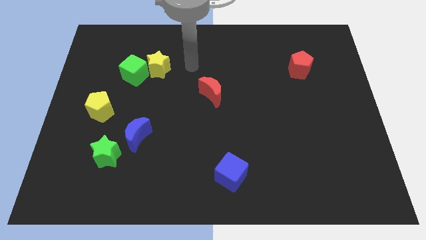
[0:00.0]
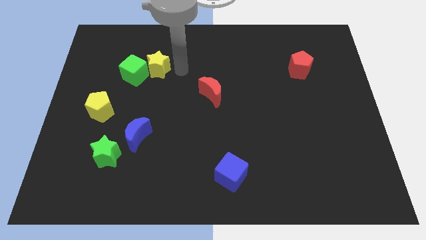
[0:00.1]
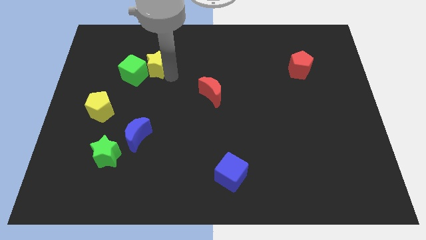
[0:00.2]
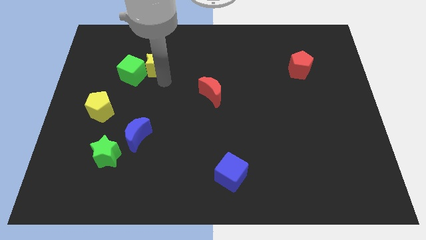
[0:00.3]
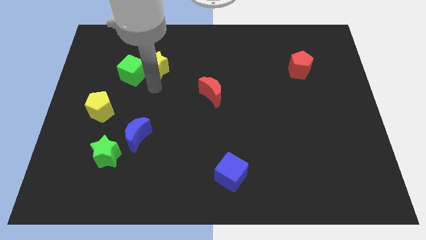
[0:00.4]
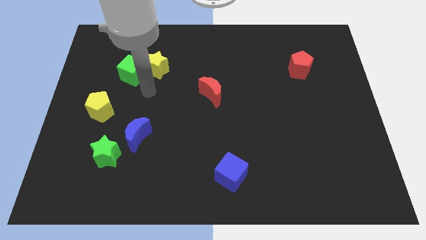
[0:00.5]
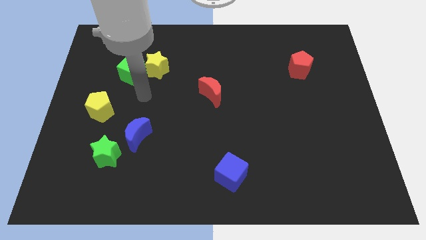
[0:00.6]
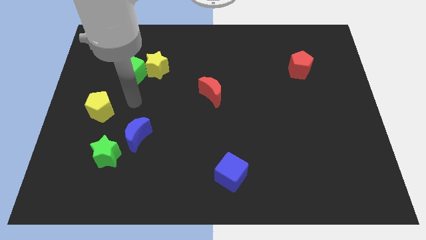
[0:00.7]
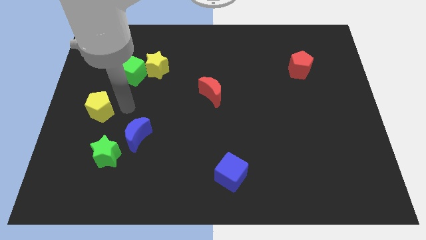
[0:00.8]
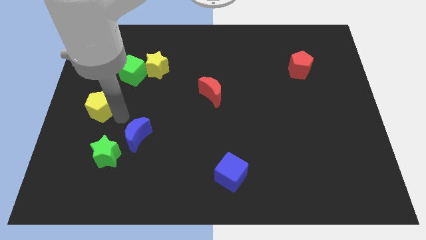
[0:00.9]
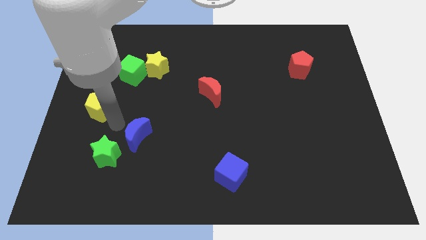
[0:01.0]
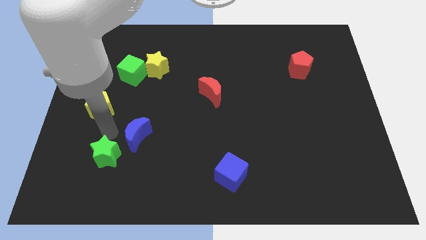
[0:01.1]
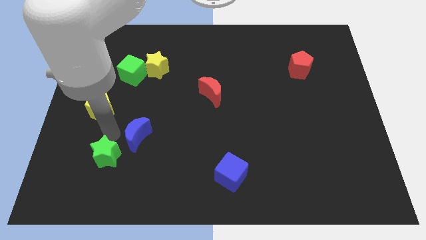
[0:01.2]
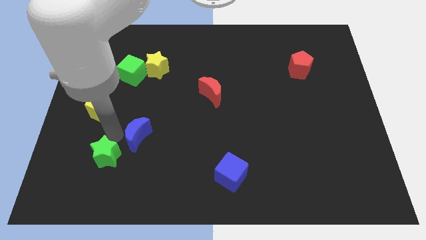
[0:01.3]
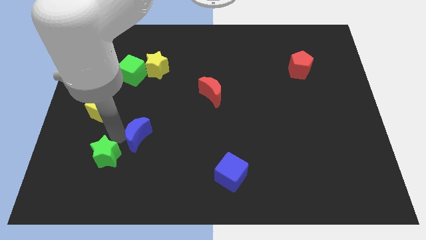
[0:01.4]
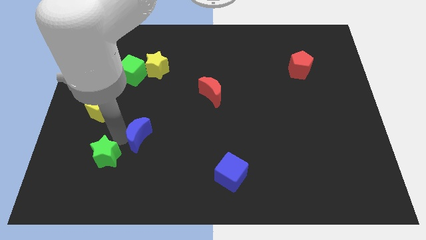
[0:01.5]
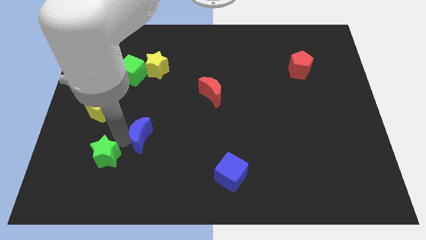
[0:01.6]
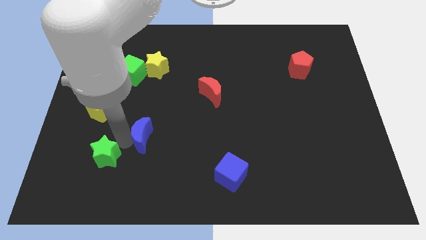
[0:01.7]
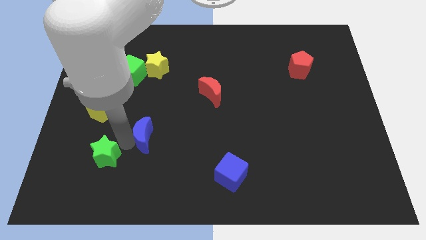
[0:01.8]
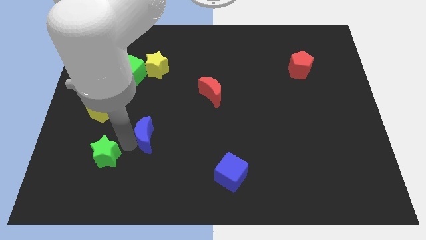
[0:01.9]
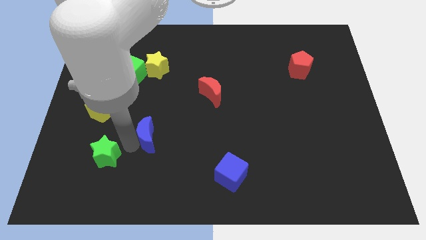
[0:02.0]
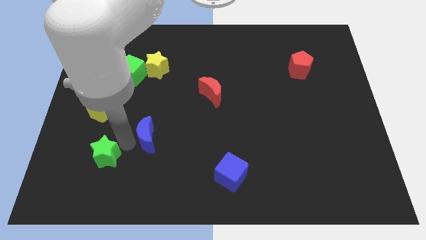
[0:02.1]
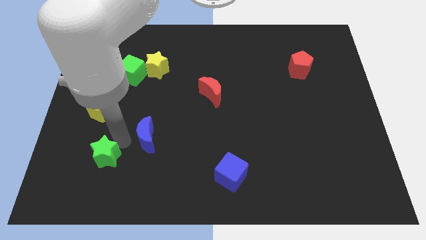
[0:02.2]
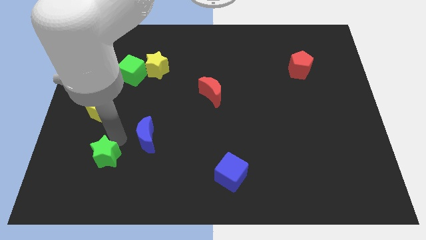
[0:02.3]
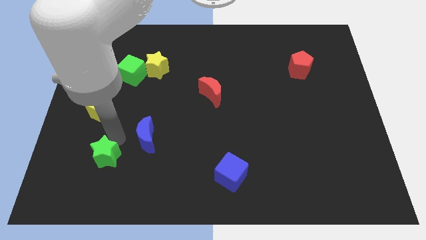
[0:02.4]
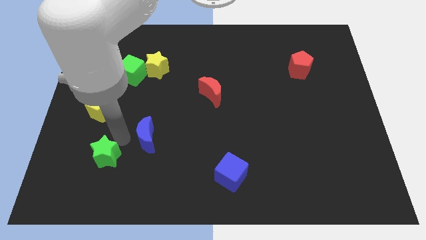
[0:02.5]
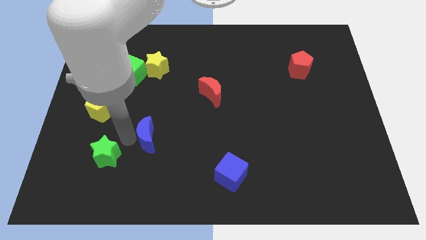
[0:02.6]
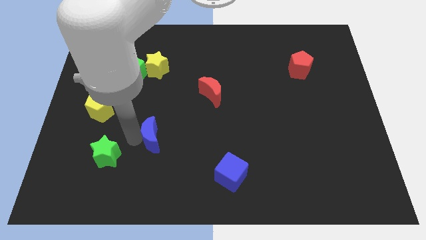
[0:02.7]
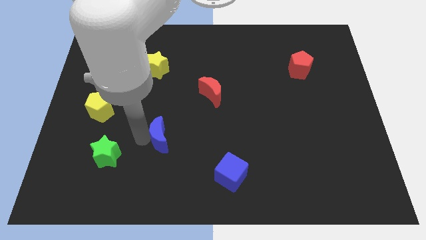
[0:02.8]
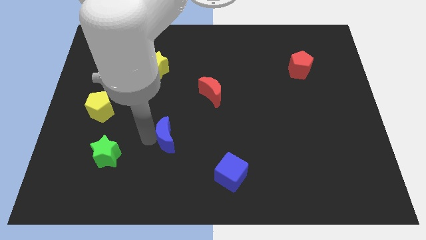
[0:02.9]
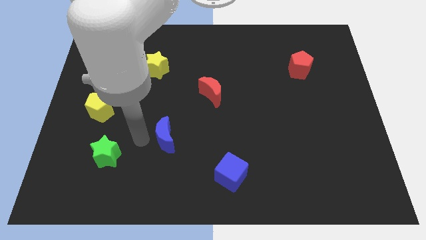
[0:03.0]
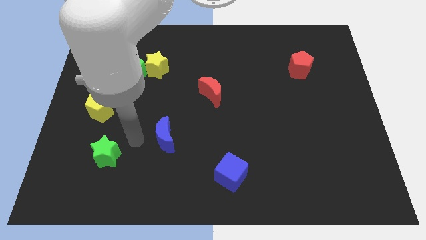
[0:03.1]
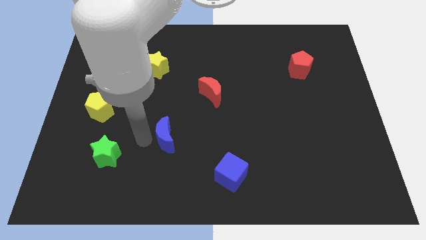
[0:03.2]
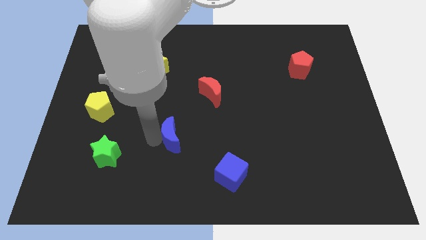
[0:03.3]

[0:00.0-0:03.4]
slide the blue moon a bit right

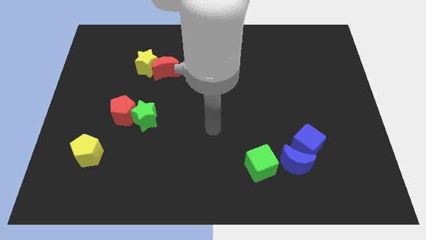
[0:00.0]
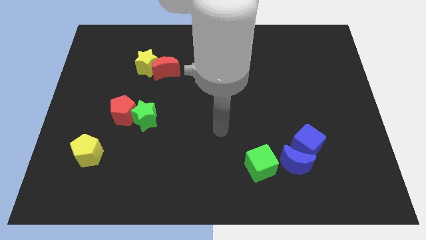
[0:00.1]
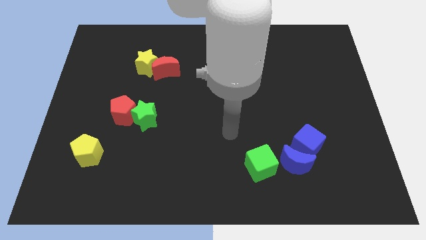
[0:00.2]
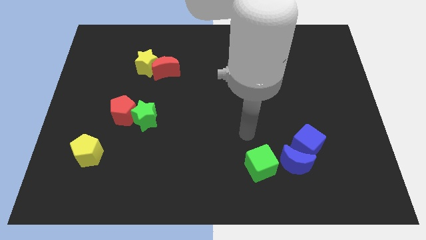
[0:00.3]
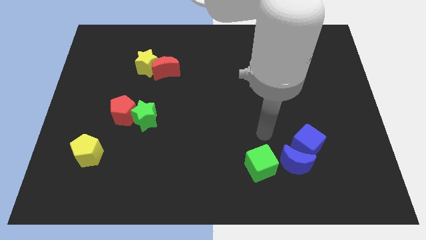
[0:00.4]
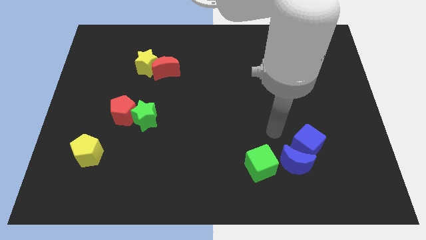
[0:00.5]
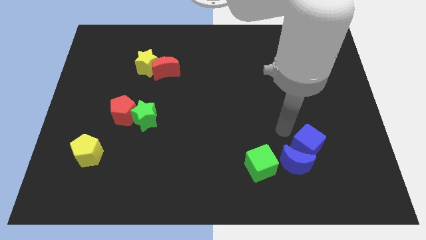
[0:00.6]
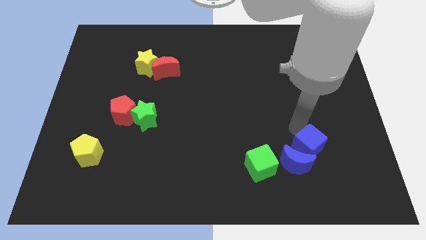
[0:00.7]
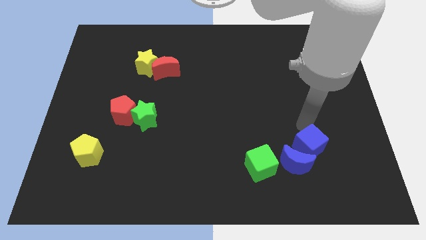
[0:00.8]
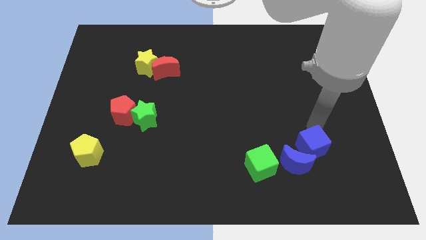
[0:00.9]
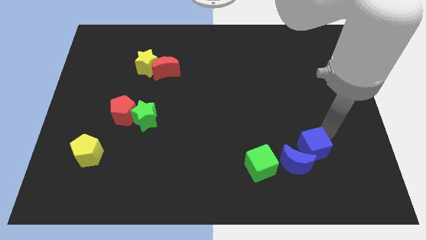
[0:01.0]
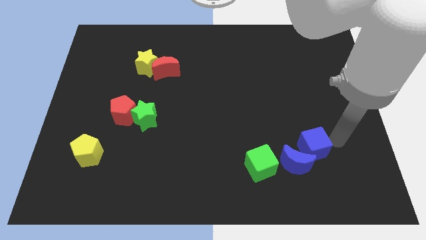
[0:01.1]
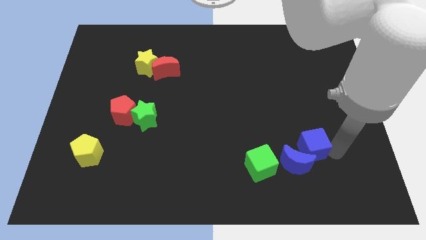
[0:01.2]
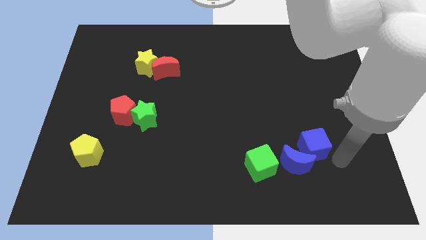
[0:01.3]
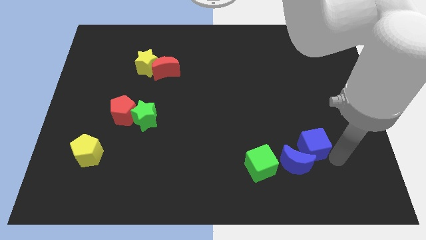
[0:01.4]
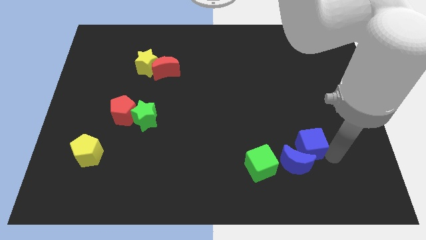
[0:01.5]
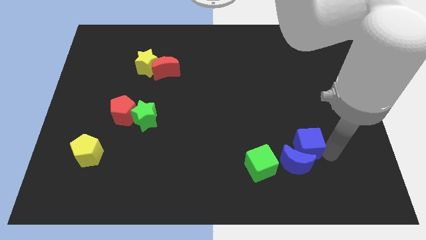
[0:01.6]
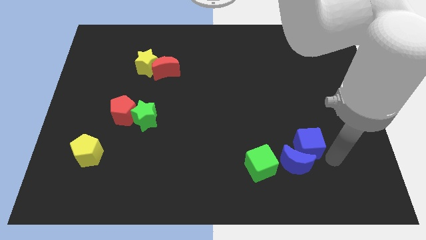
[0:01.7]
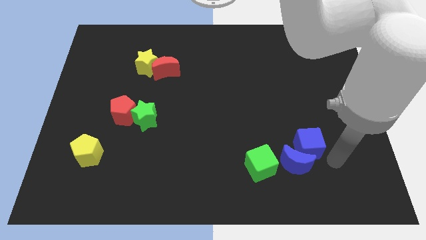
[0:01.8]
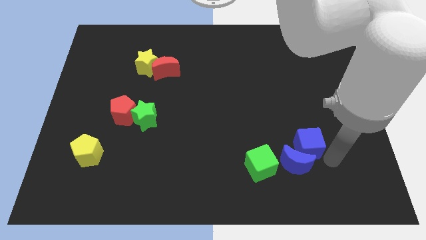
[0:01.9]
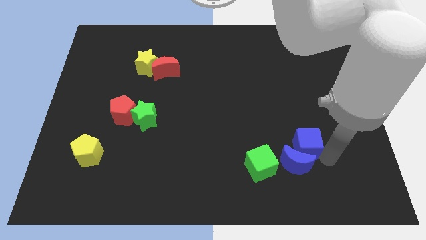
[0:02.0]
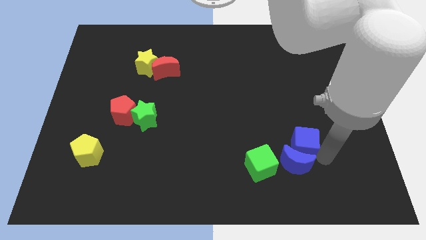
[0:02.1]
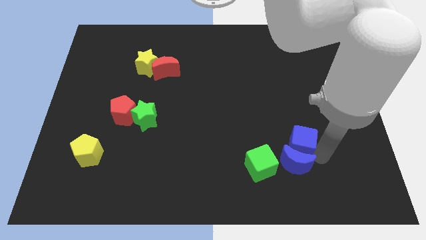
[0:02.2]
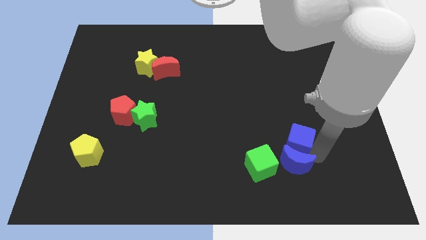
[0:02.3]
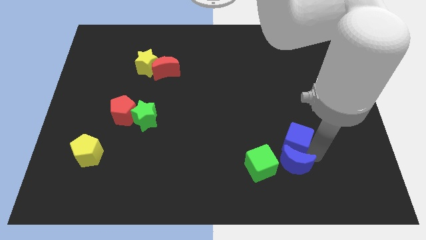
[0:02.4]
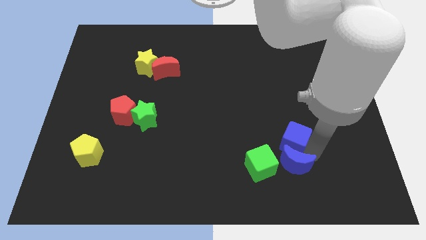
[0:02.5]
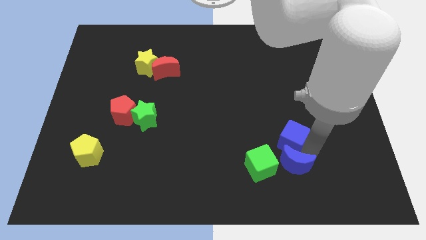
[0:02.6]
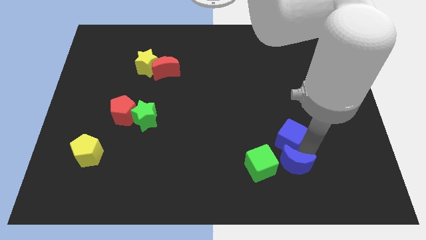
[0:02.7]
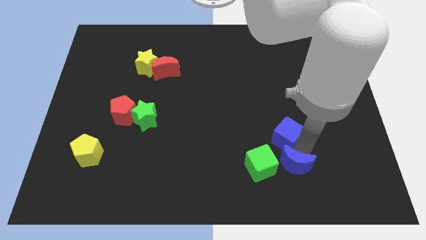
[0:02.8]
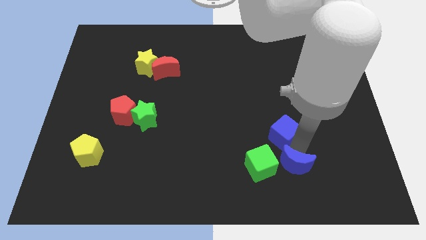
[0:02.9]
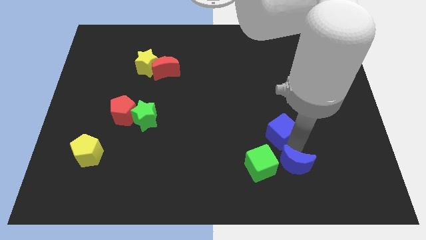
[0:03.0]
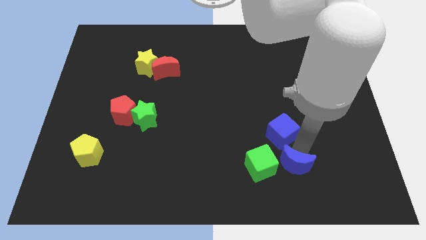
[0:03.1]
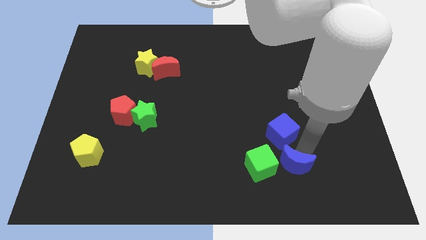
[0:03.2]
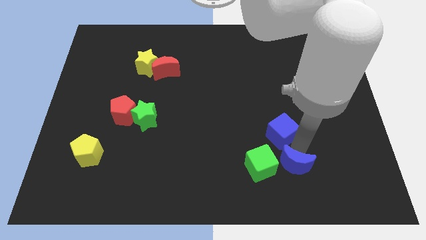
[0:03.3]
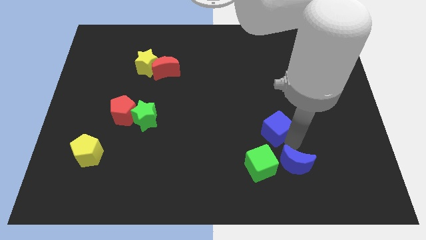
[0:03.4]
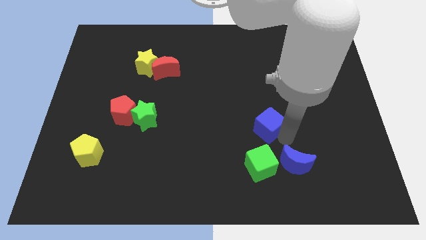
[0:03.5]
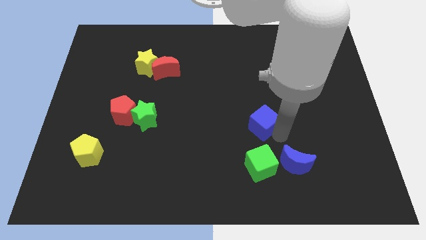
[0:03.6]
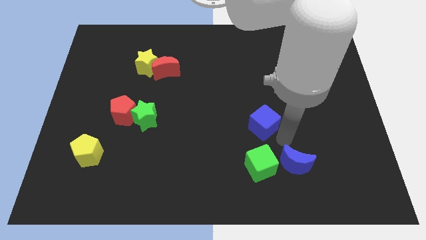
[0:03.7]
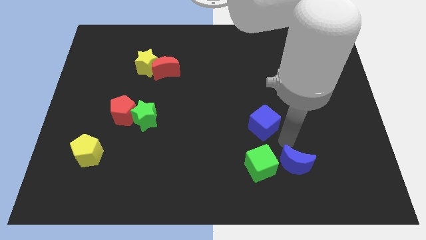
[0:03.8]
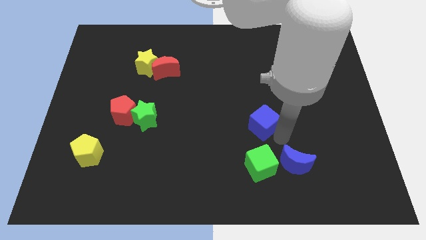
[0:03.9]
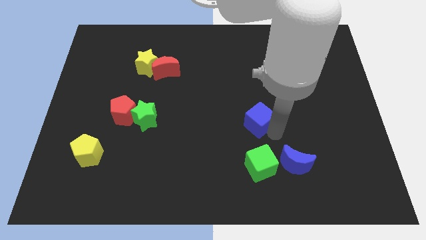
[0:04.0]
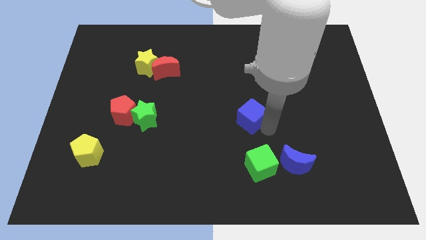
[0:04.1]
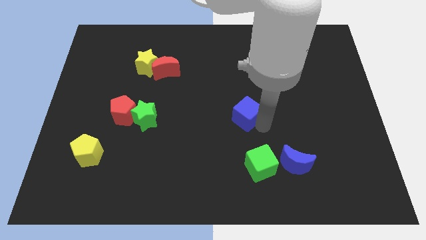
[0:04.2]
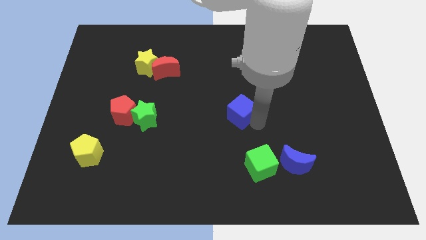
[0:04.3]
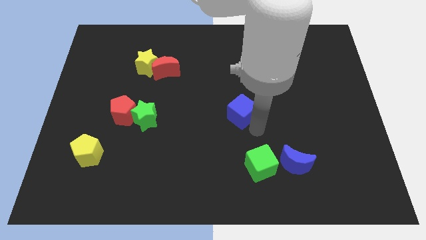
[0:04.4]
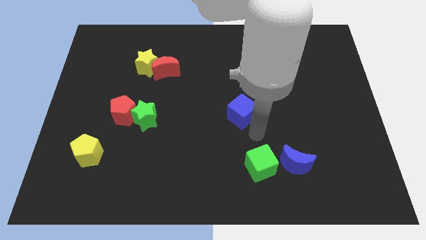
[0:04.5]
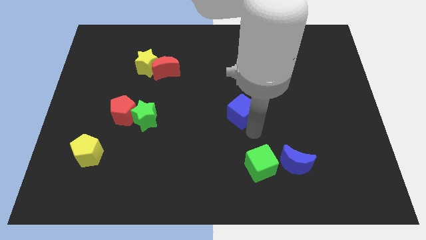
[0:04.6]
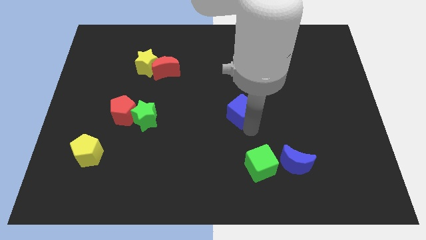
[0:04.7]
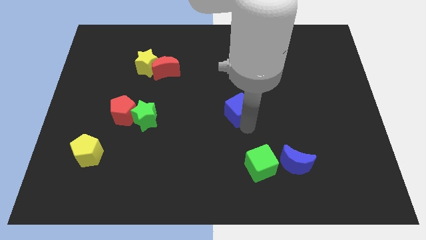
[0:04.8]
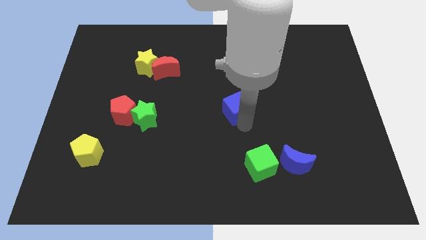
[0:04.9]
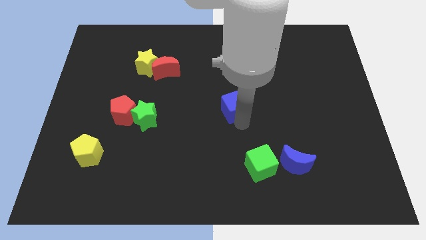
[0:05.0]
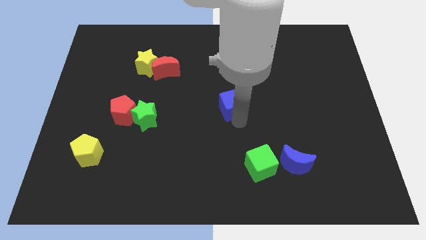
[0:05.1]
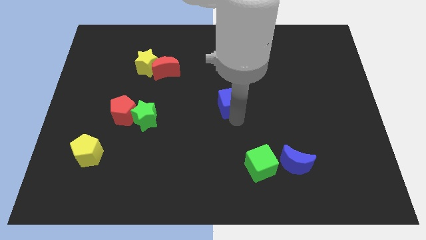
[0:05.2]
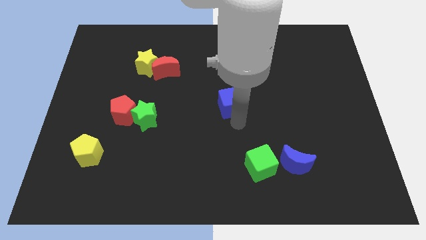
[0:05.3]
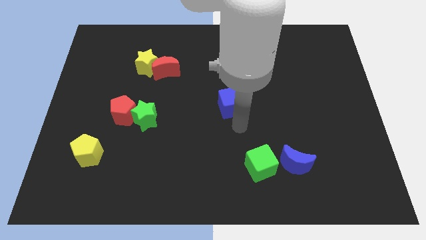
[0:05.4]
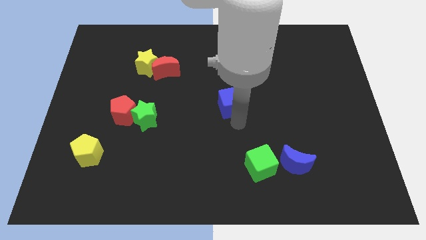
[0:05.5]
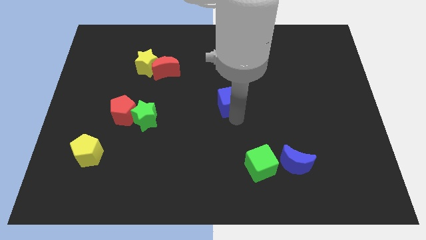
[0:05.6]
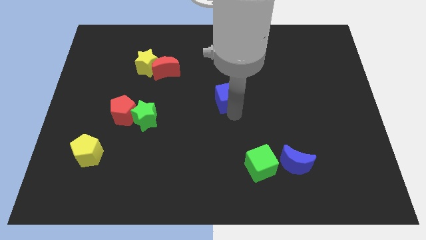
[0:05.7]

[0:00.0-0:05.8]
slide the blue cube upwards and then to the left
